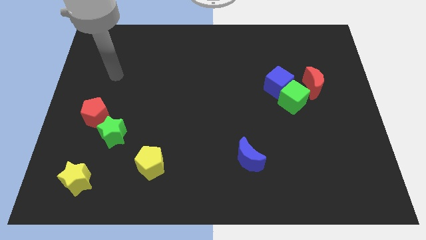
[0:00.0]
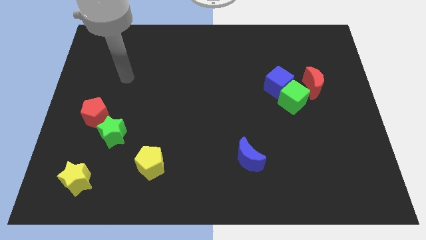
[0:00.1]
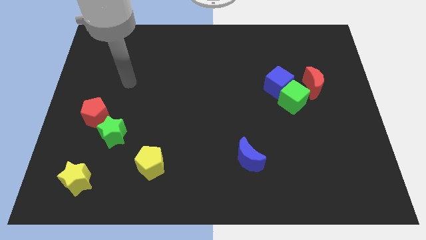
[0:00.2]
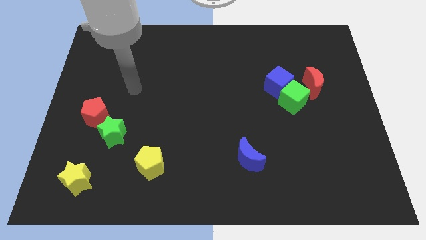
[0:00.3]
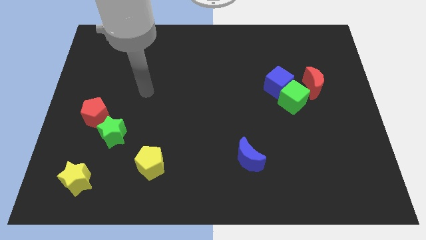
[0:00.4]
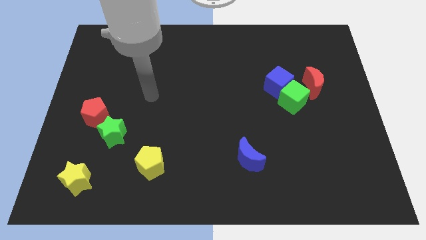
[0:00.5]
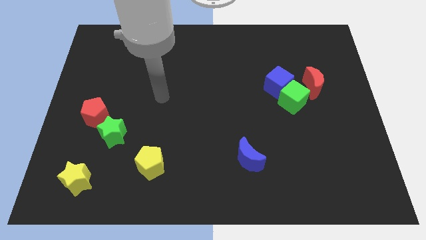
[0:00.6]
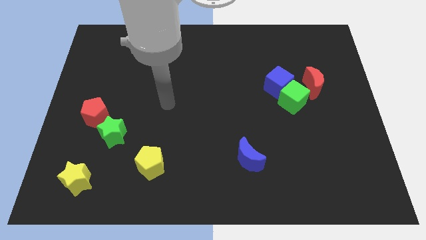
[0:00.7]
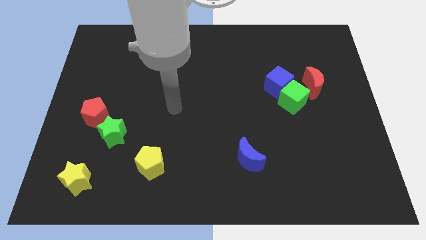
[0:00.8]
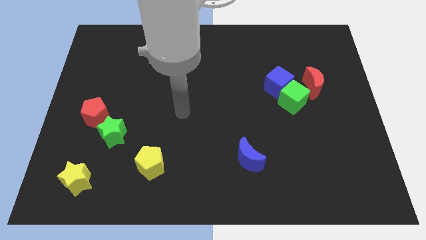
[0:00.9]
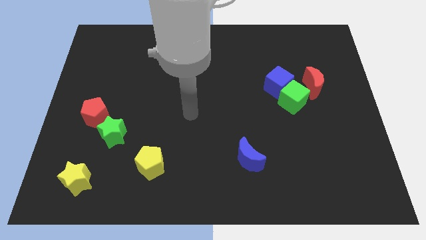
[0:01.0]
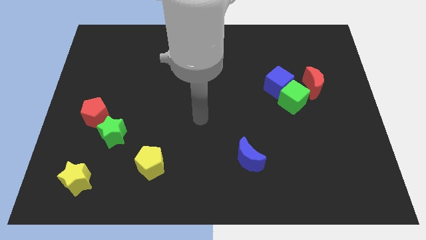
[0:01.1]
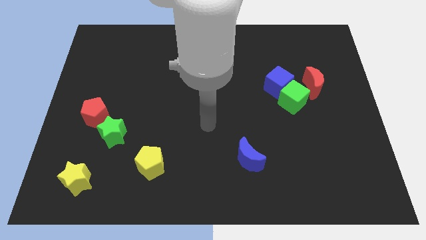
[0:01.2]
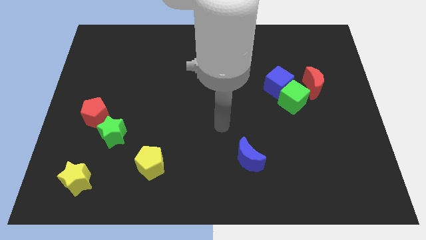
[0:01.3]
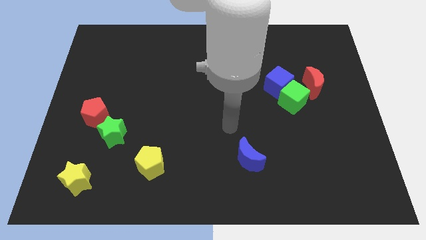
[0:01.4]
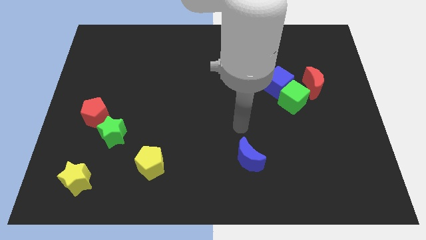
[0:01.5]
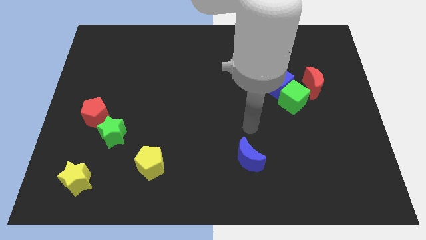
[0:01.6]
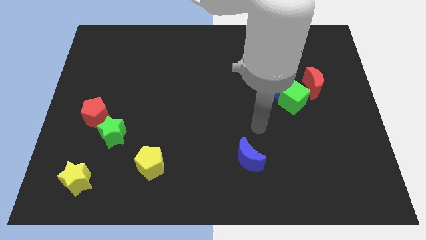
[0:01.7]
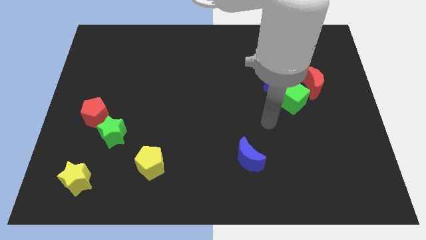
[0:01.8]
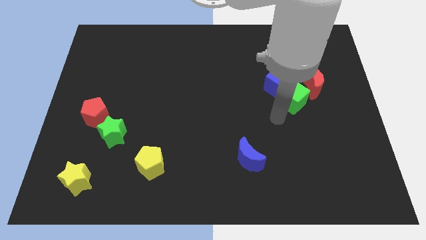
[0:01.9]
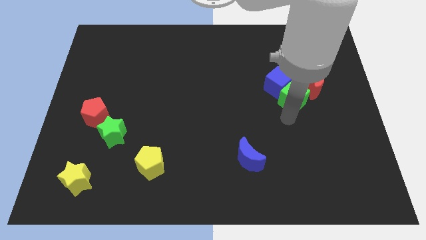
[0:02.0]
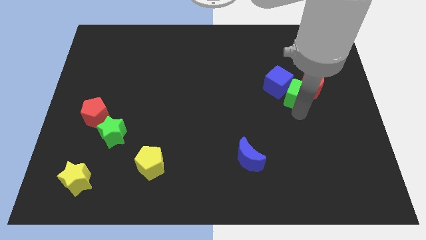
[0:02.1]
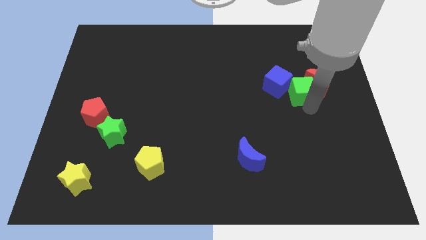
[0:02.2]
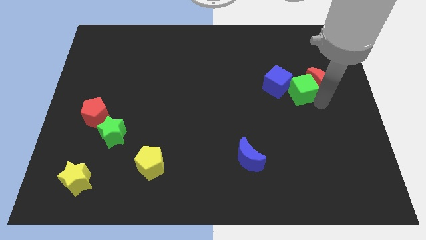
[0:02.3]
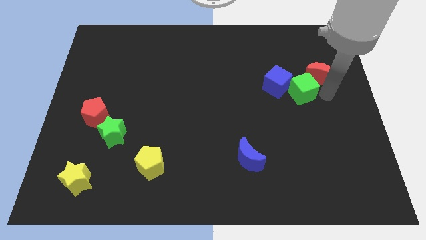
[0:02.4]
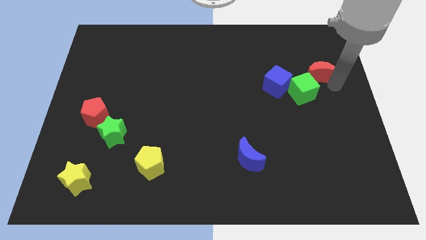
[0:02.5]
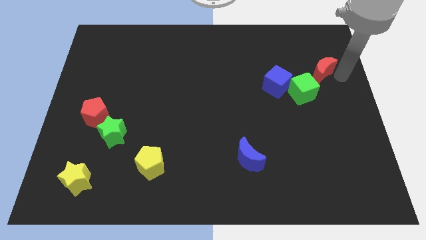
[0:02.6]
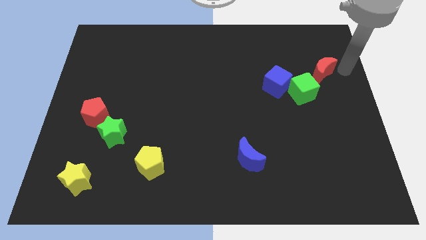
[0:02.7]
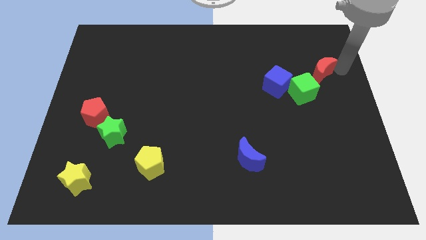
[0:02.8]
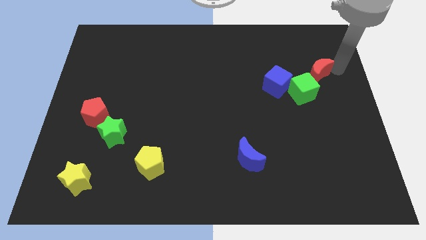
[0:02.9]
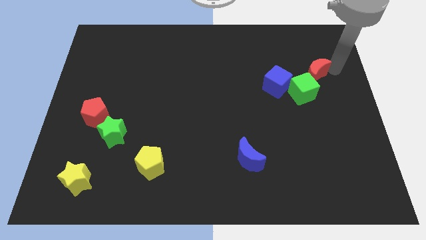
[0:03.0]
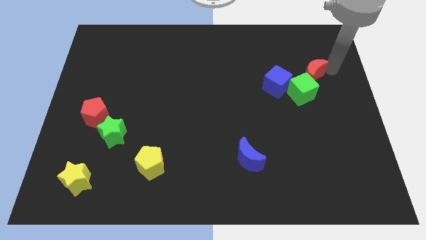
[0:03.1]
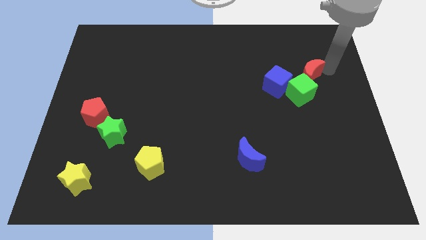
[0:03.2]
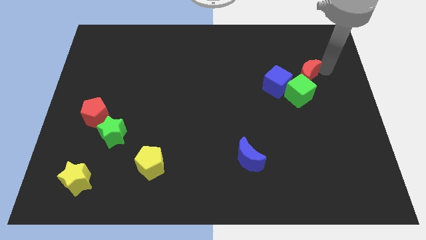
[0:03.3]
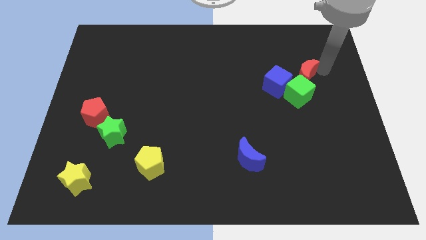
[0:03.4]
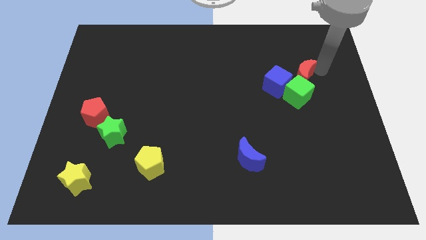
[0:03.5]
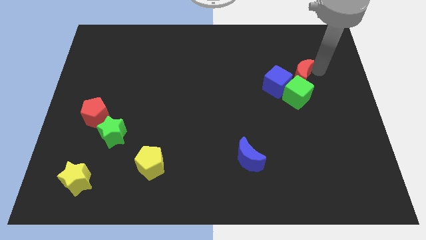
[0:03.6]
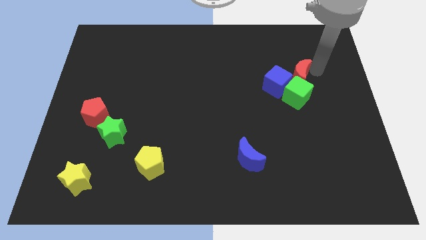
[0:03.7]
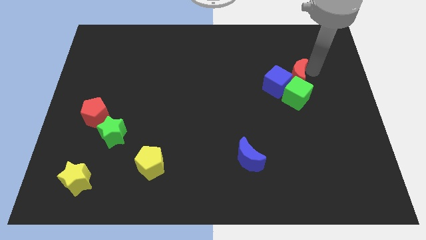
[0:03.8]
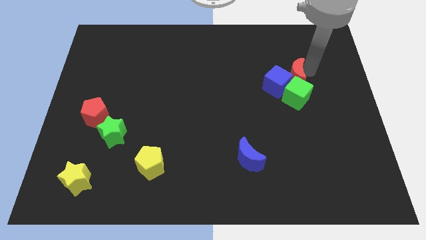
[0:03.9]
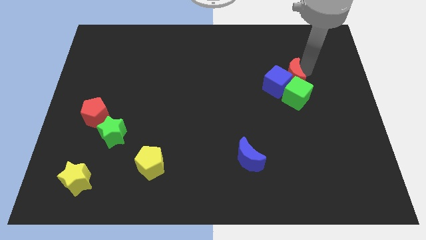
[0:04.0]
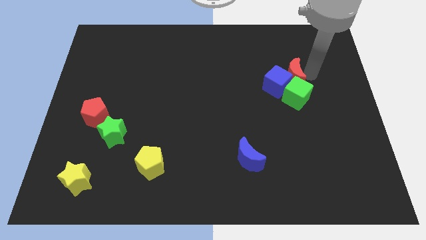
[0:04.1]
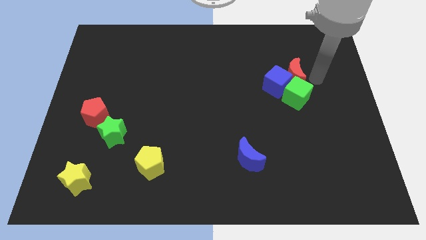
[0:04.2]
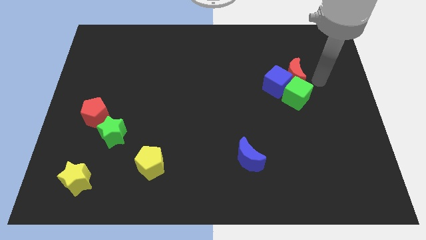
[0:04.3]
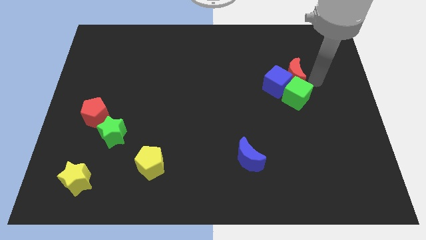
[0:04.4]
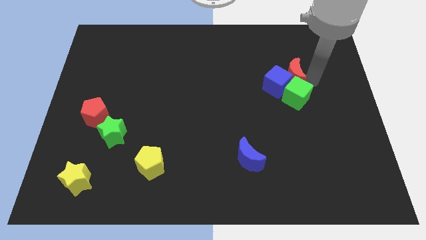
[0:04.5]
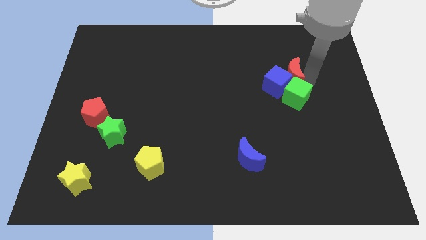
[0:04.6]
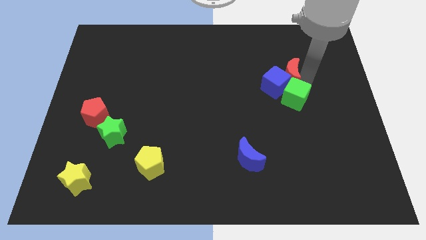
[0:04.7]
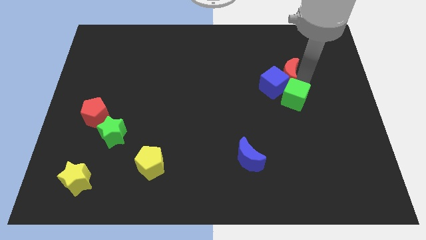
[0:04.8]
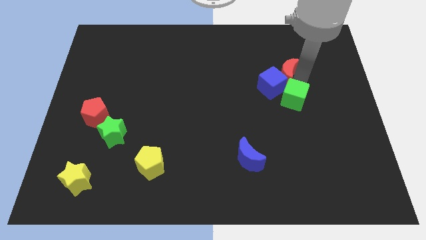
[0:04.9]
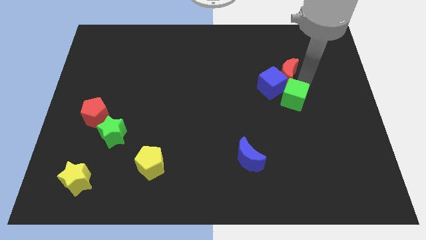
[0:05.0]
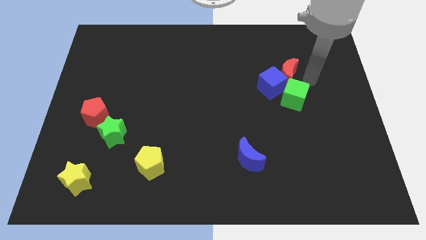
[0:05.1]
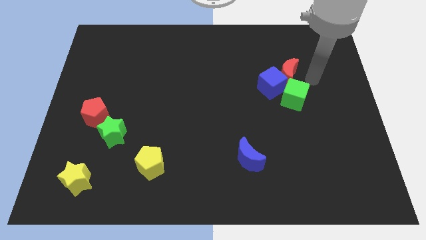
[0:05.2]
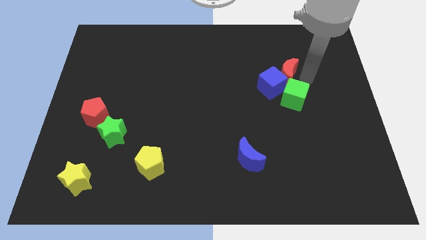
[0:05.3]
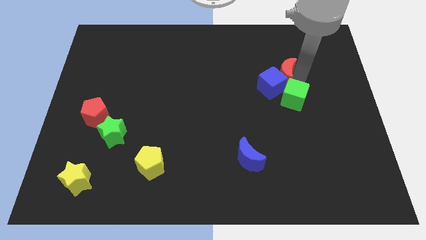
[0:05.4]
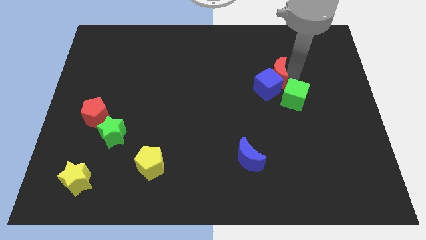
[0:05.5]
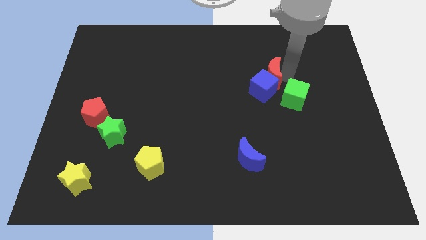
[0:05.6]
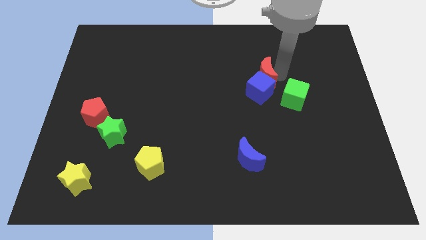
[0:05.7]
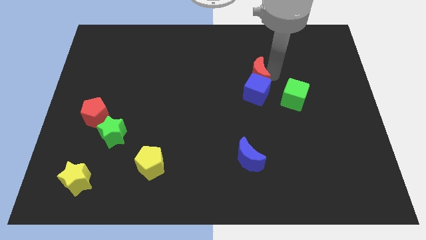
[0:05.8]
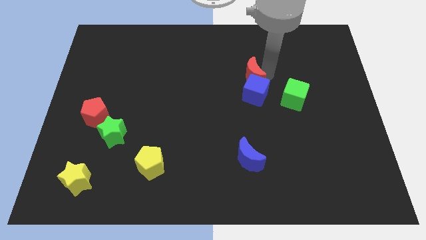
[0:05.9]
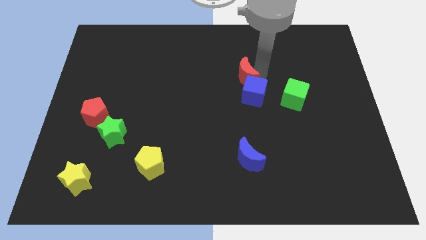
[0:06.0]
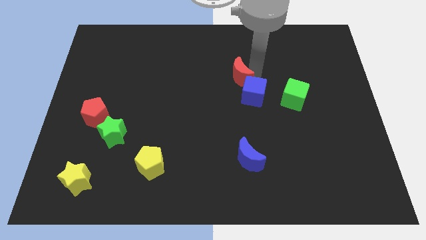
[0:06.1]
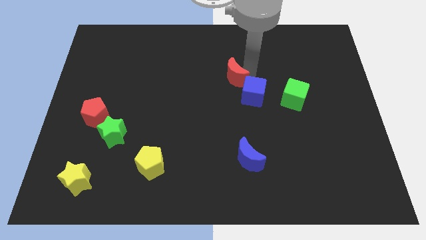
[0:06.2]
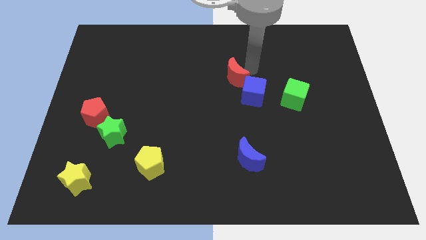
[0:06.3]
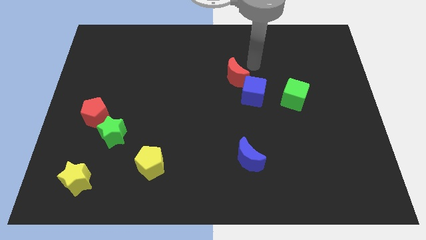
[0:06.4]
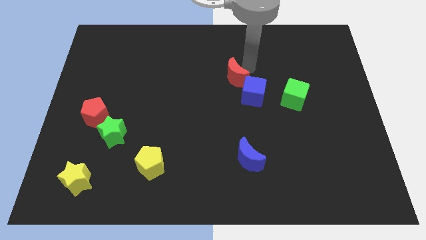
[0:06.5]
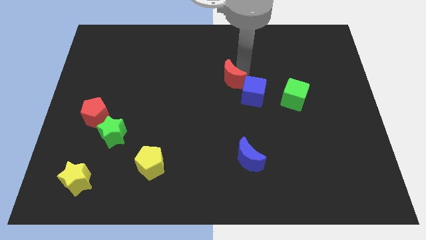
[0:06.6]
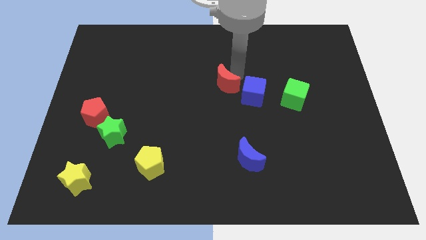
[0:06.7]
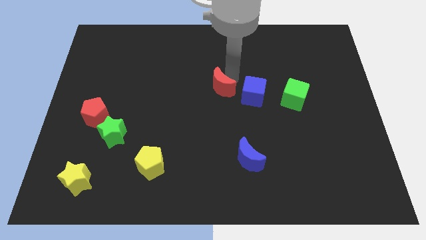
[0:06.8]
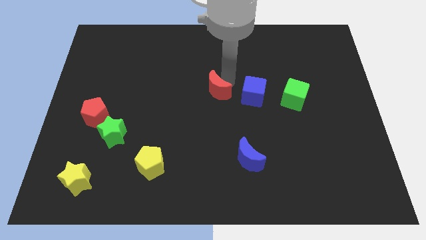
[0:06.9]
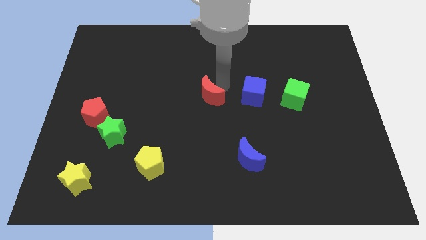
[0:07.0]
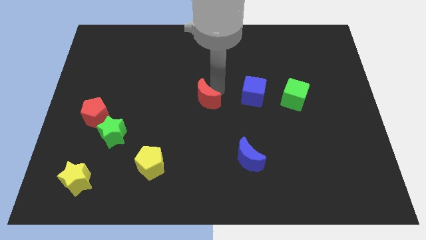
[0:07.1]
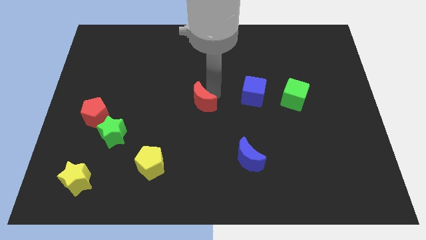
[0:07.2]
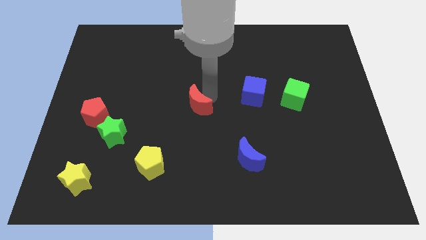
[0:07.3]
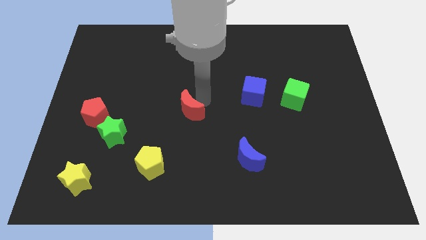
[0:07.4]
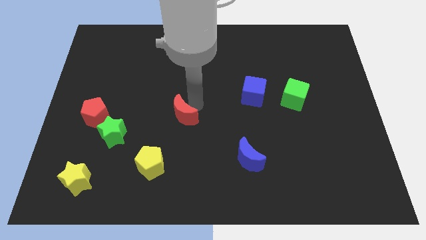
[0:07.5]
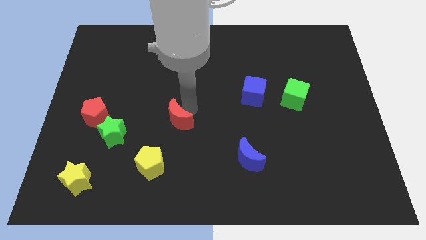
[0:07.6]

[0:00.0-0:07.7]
put the red moon just right of the green star
